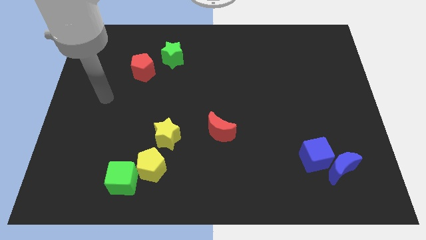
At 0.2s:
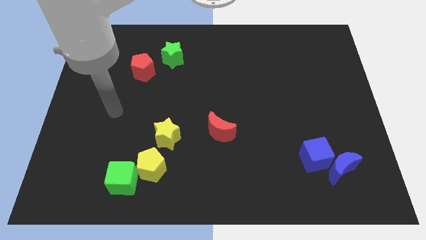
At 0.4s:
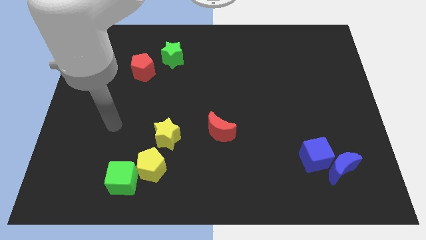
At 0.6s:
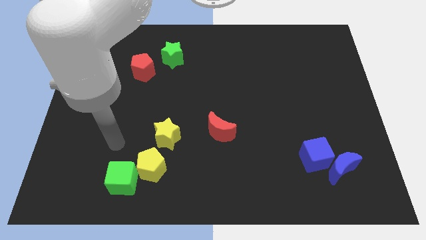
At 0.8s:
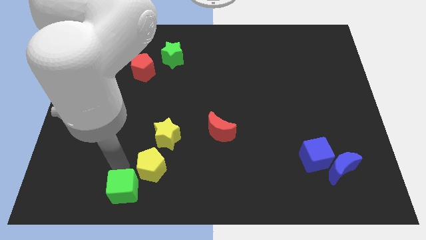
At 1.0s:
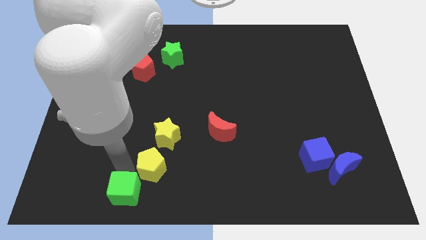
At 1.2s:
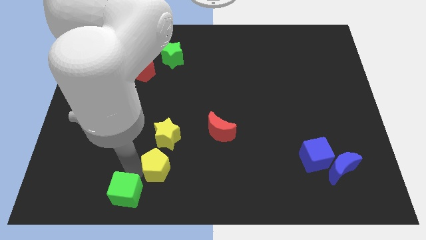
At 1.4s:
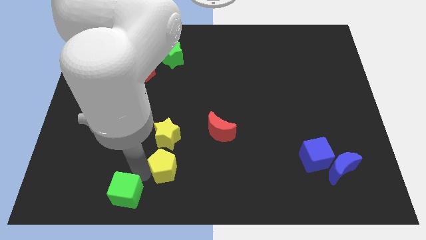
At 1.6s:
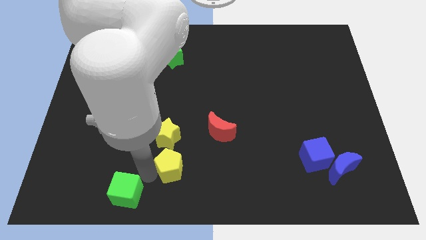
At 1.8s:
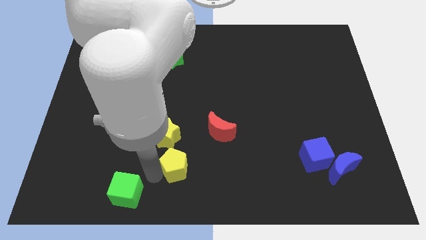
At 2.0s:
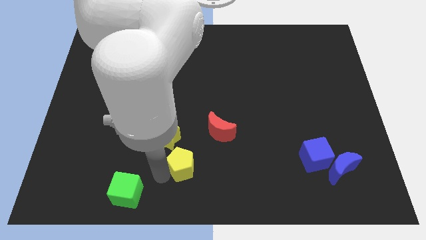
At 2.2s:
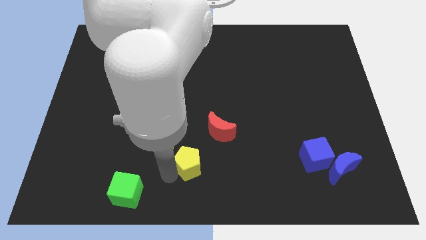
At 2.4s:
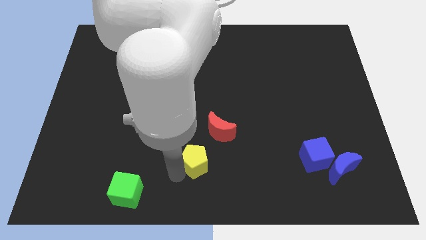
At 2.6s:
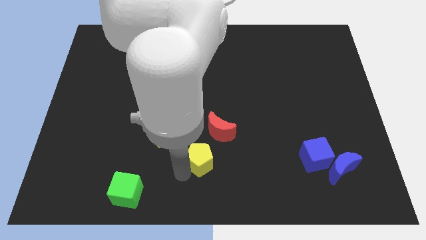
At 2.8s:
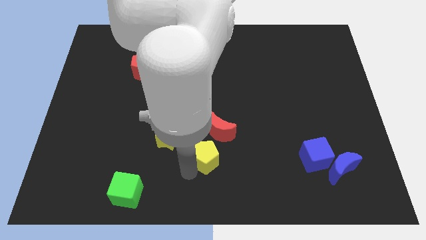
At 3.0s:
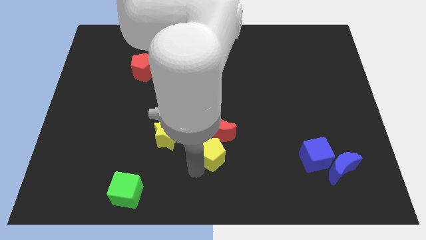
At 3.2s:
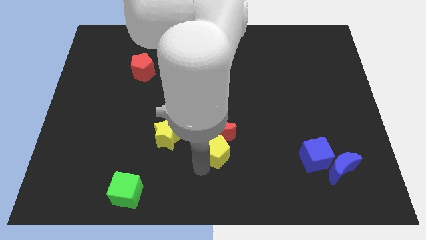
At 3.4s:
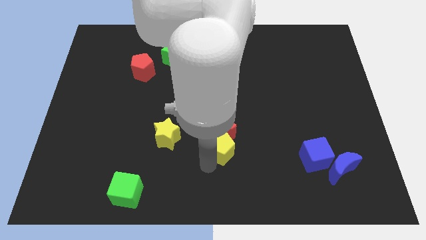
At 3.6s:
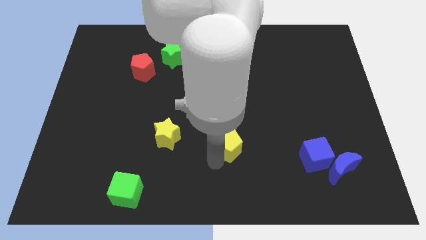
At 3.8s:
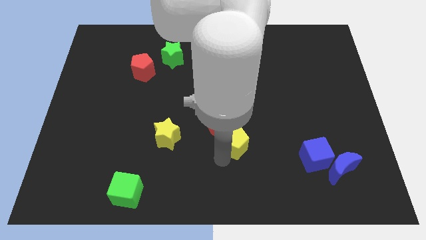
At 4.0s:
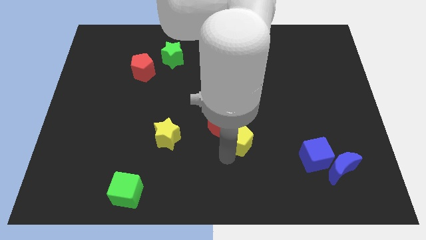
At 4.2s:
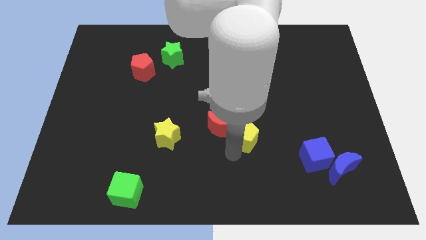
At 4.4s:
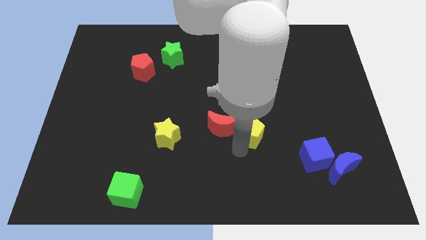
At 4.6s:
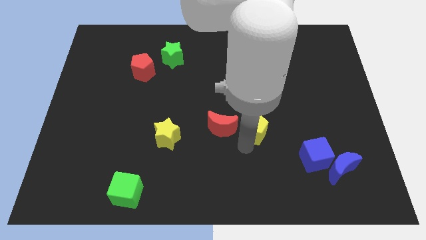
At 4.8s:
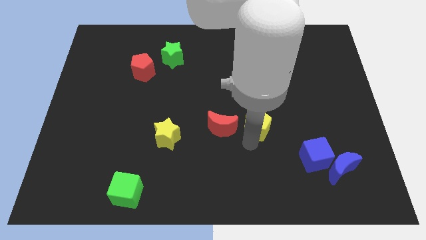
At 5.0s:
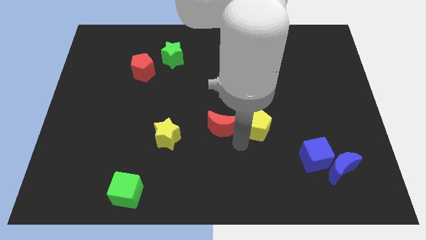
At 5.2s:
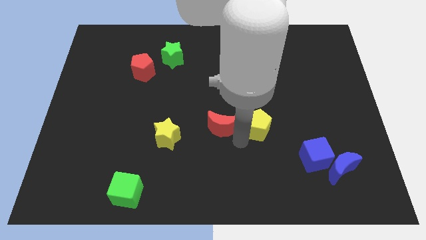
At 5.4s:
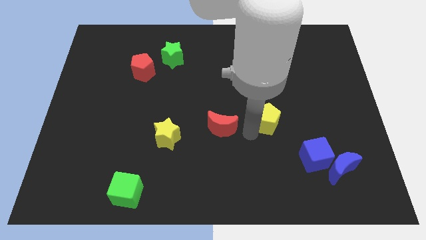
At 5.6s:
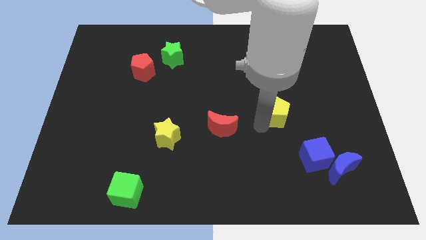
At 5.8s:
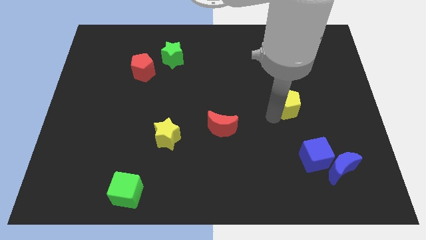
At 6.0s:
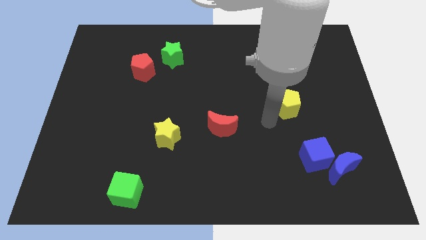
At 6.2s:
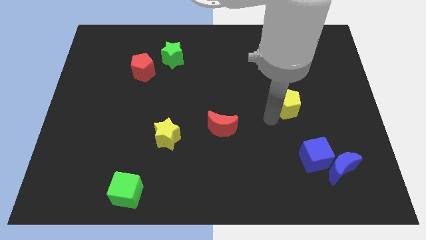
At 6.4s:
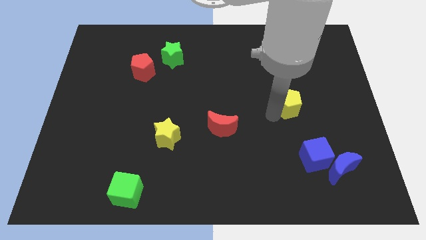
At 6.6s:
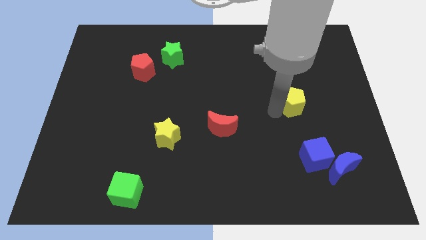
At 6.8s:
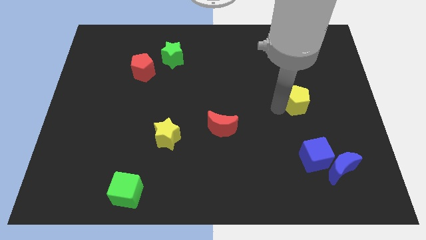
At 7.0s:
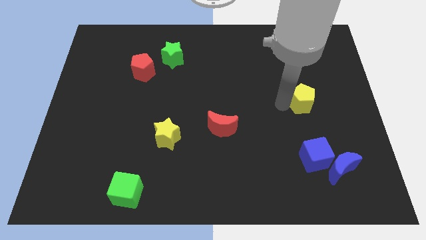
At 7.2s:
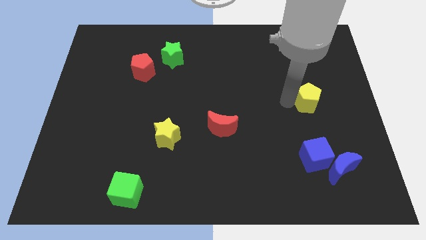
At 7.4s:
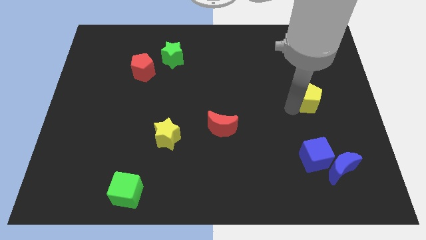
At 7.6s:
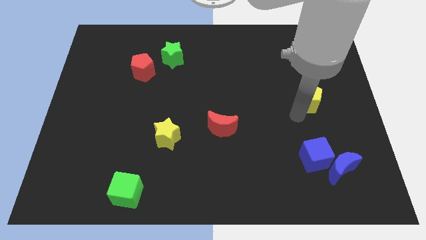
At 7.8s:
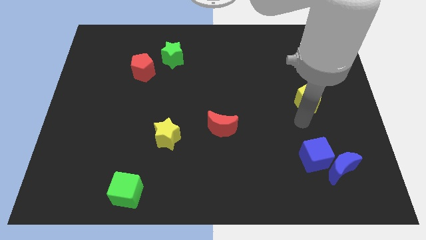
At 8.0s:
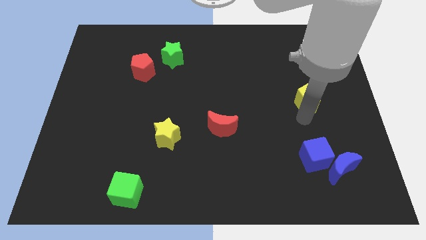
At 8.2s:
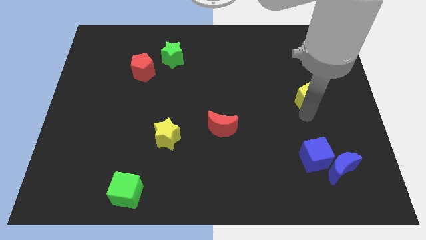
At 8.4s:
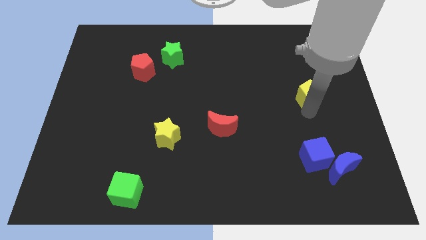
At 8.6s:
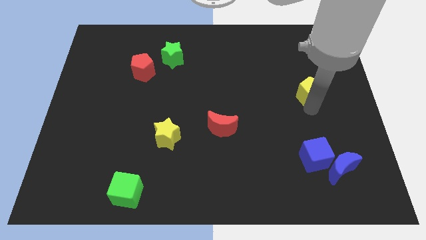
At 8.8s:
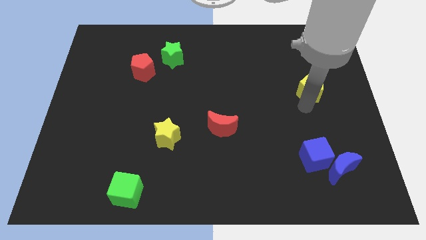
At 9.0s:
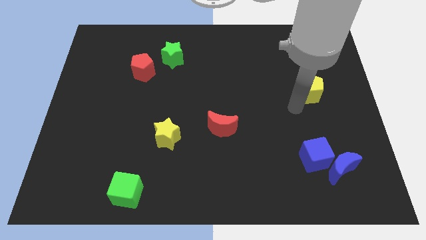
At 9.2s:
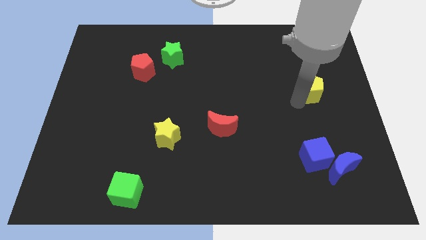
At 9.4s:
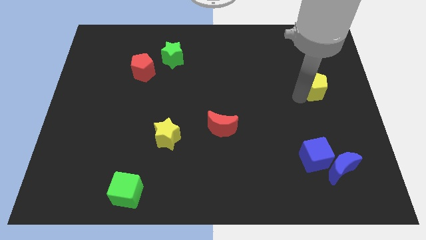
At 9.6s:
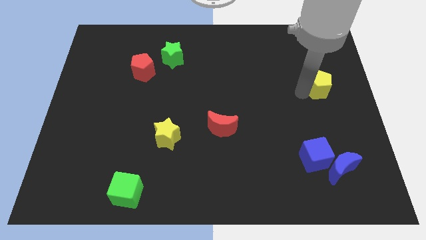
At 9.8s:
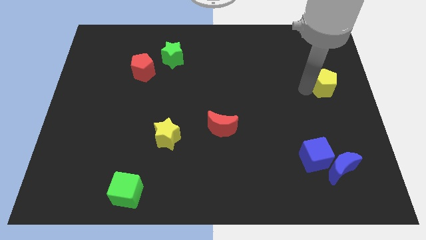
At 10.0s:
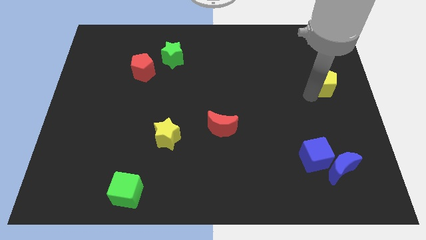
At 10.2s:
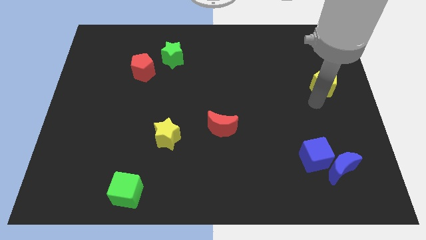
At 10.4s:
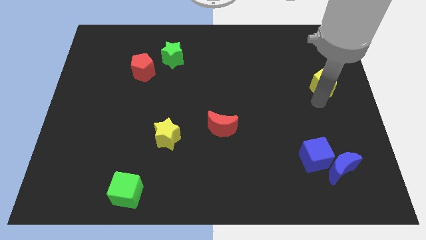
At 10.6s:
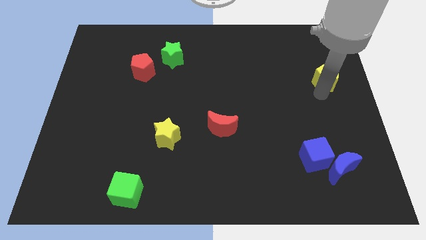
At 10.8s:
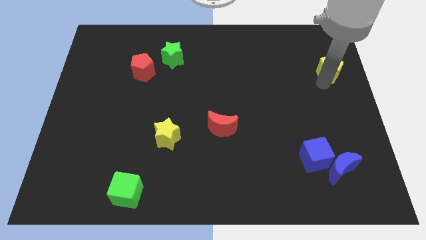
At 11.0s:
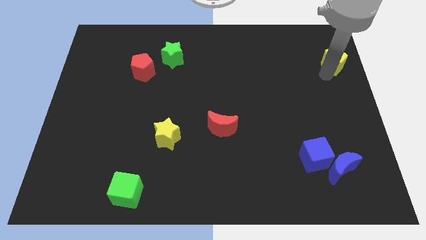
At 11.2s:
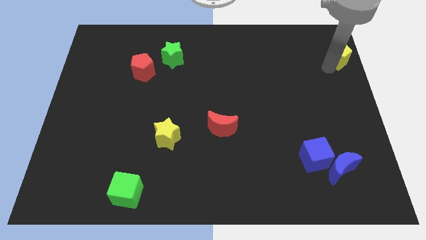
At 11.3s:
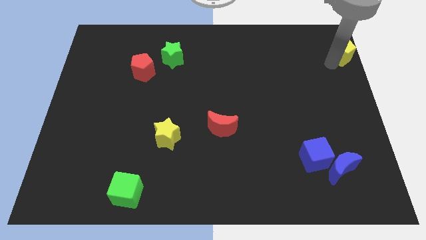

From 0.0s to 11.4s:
put the yellow pentagon to the top right
